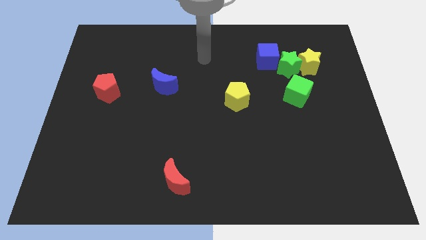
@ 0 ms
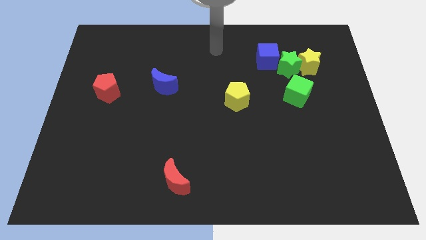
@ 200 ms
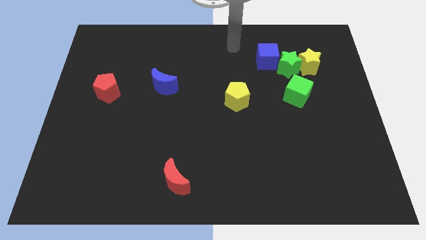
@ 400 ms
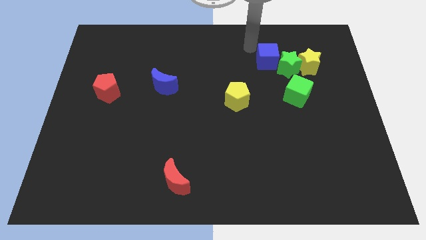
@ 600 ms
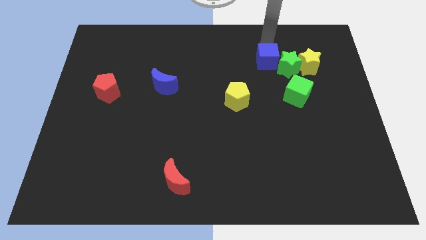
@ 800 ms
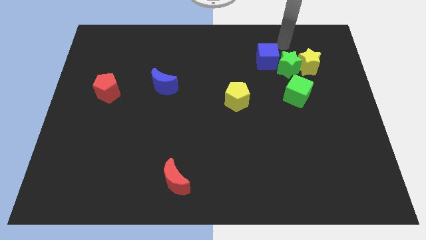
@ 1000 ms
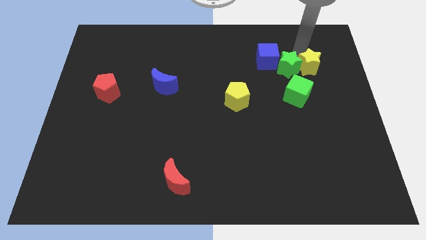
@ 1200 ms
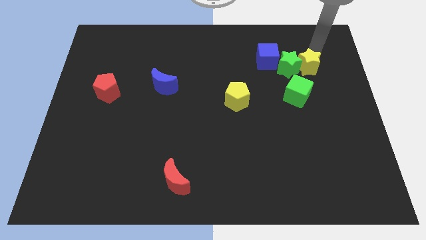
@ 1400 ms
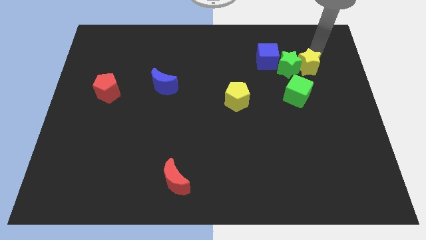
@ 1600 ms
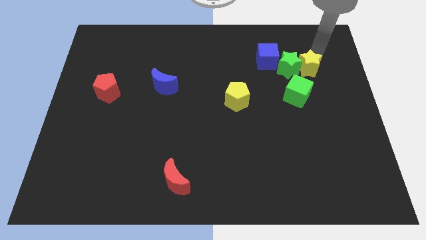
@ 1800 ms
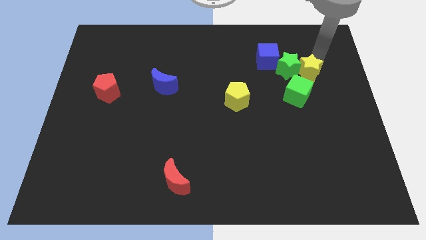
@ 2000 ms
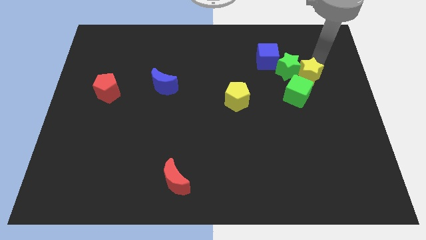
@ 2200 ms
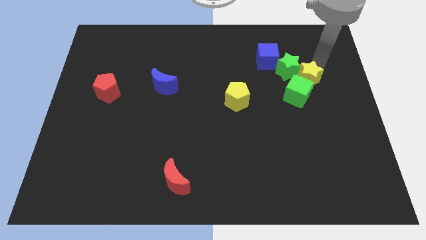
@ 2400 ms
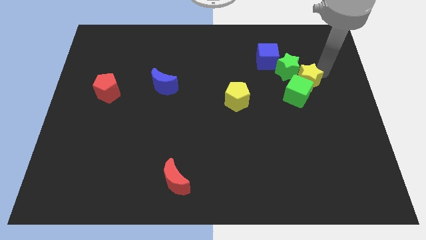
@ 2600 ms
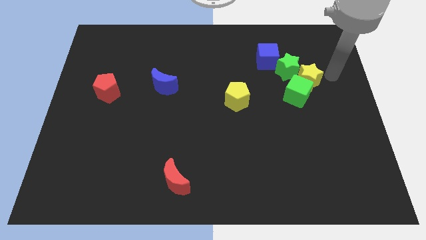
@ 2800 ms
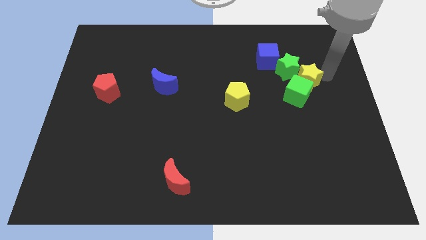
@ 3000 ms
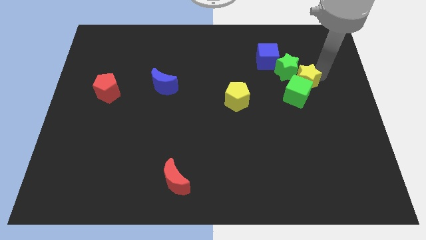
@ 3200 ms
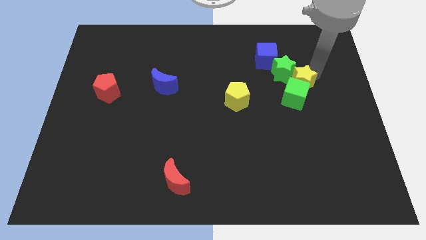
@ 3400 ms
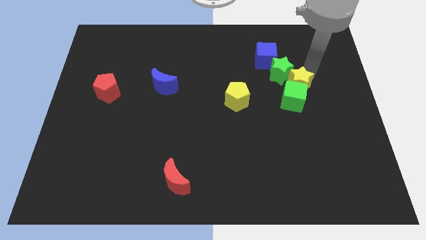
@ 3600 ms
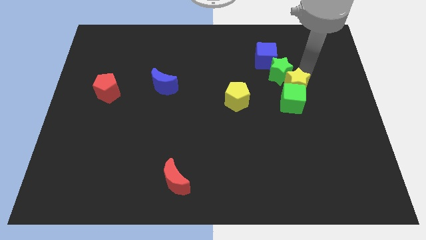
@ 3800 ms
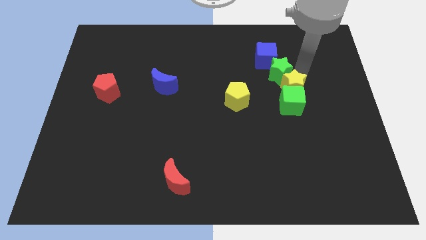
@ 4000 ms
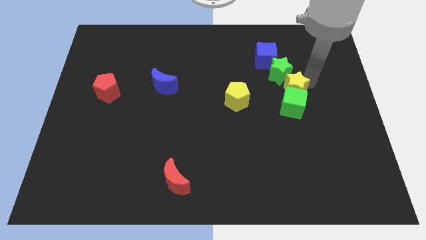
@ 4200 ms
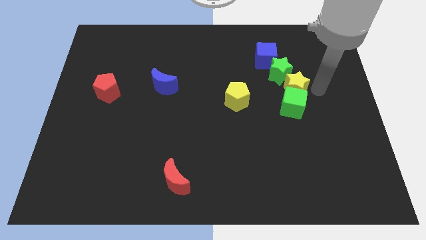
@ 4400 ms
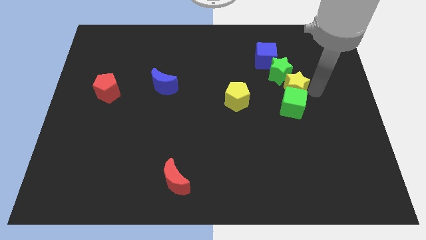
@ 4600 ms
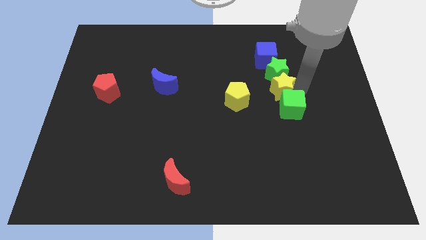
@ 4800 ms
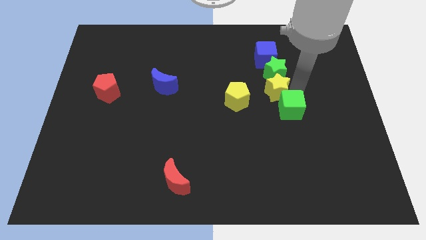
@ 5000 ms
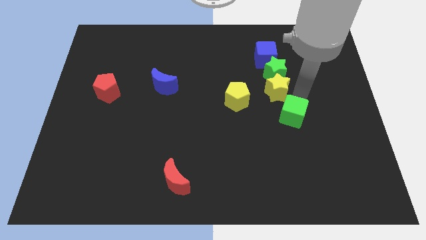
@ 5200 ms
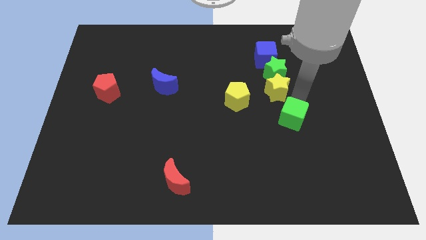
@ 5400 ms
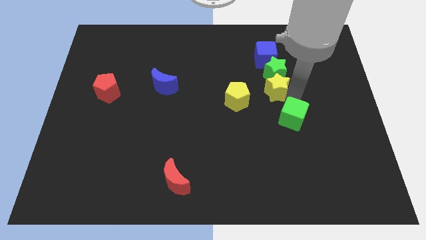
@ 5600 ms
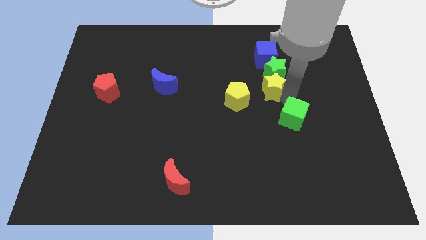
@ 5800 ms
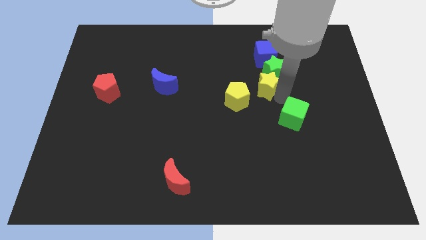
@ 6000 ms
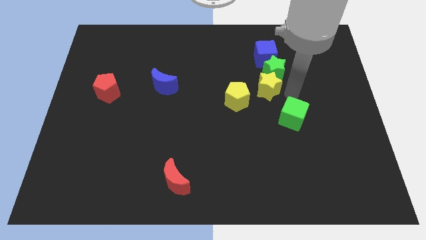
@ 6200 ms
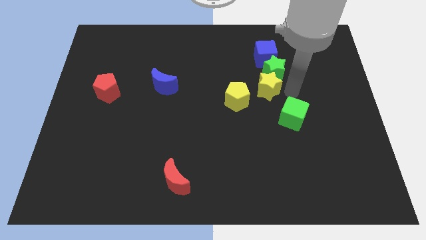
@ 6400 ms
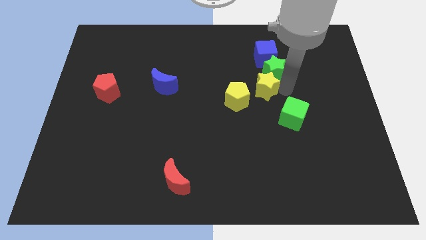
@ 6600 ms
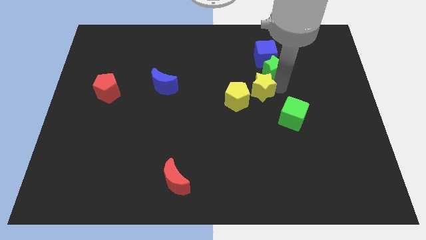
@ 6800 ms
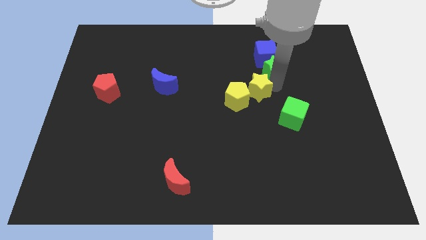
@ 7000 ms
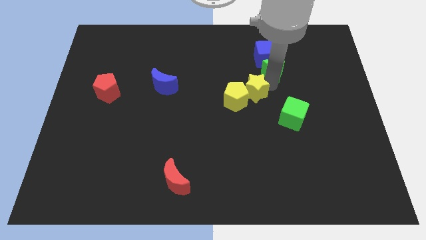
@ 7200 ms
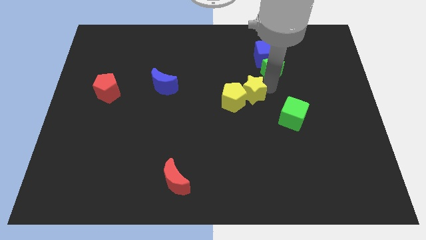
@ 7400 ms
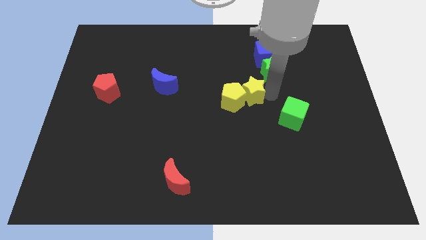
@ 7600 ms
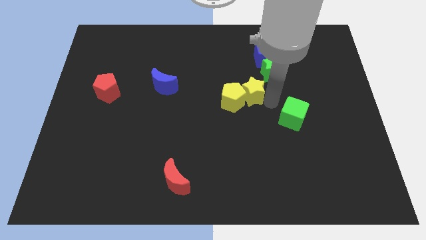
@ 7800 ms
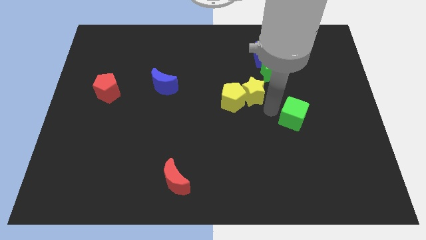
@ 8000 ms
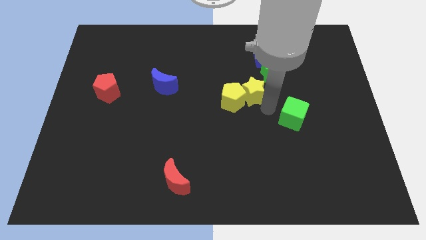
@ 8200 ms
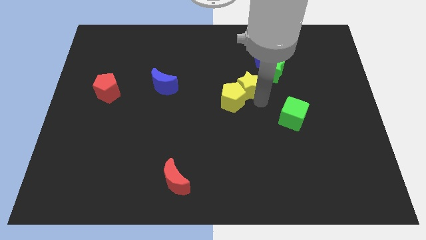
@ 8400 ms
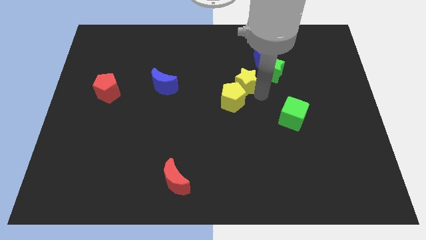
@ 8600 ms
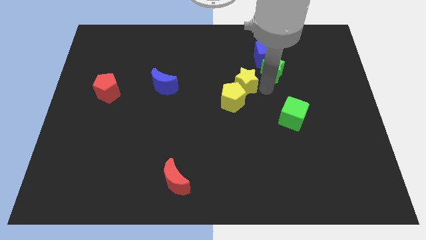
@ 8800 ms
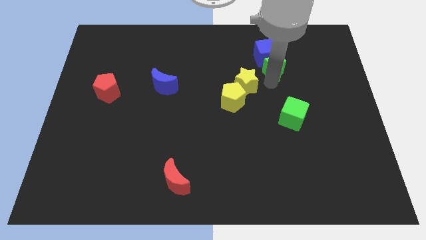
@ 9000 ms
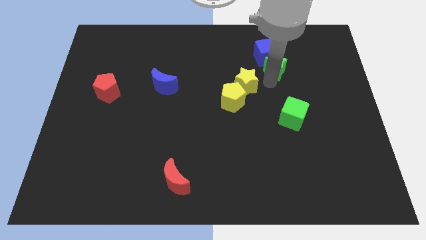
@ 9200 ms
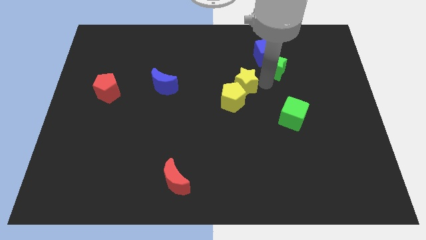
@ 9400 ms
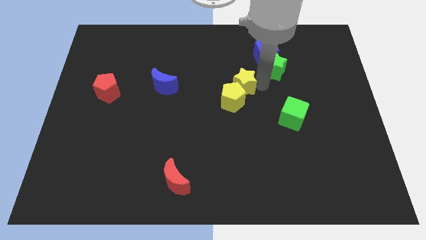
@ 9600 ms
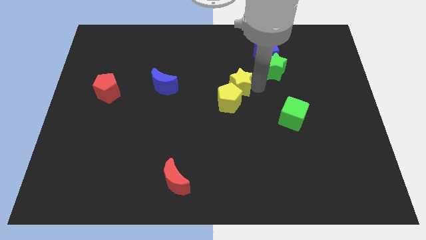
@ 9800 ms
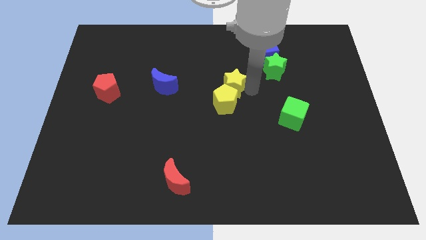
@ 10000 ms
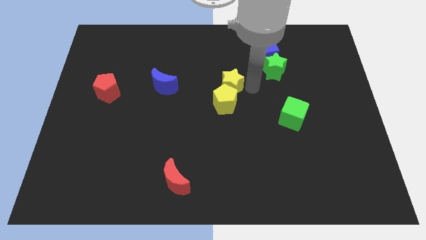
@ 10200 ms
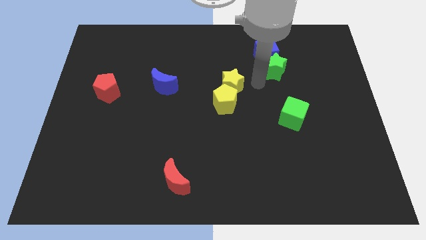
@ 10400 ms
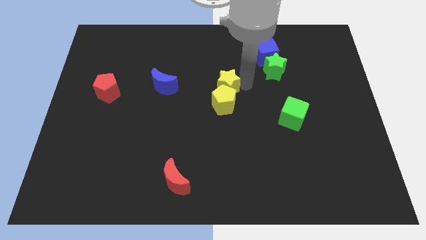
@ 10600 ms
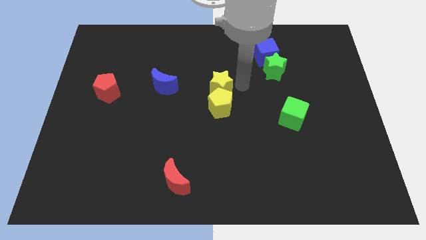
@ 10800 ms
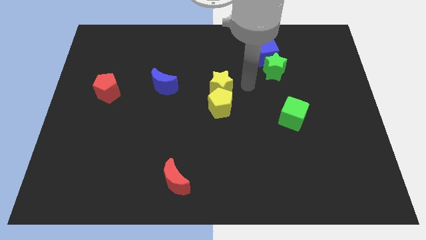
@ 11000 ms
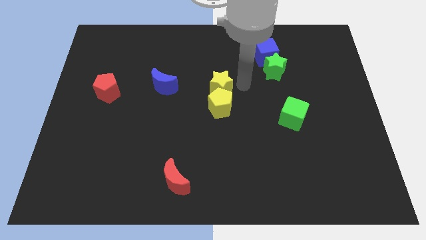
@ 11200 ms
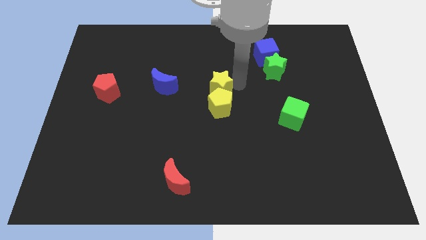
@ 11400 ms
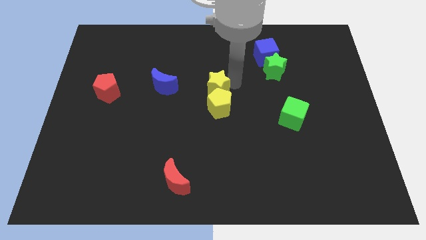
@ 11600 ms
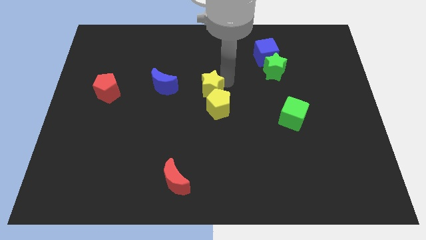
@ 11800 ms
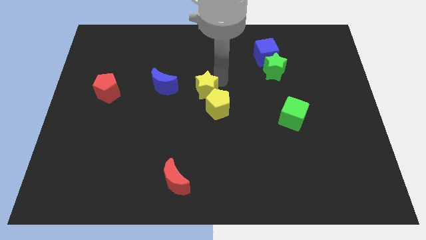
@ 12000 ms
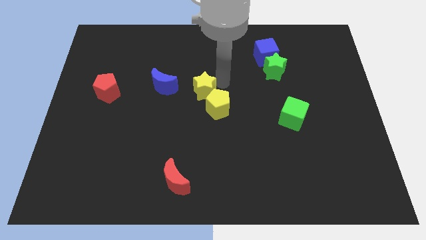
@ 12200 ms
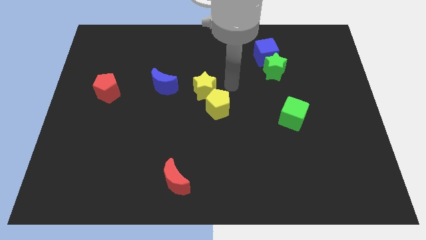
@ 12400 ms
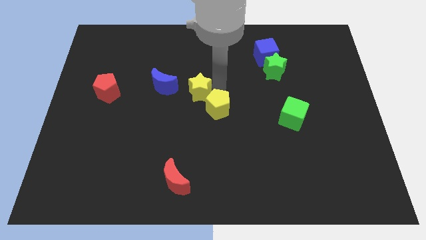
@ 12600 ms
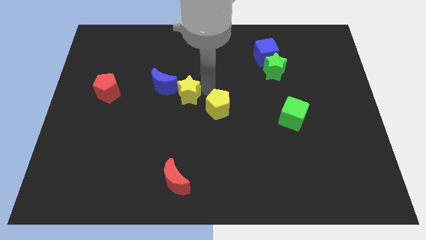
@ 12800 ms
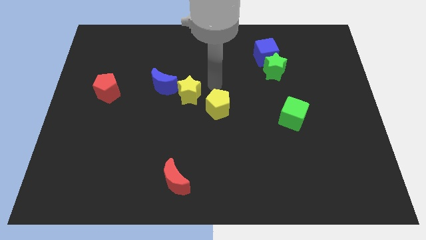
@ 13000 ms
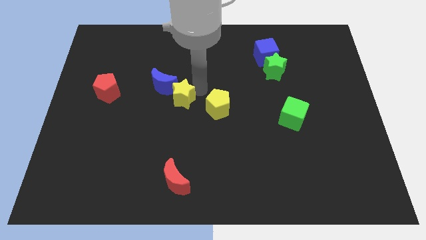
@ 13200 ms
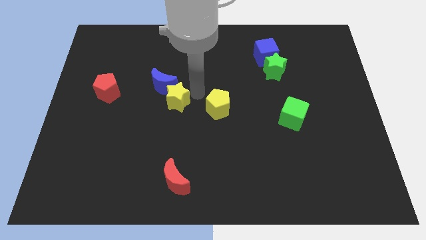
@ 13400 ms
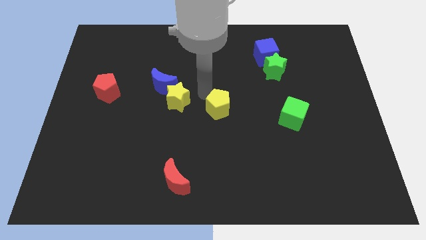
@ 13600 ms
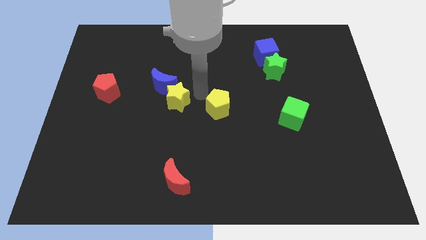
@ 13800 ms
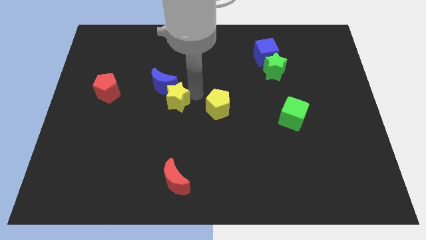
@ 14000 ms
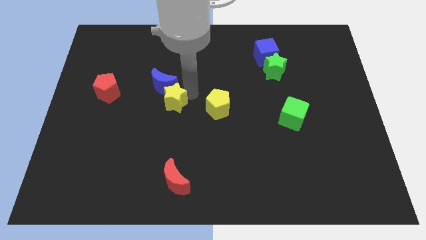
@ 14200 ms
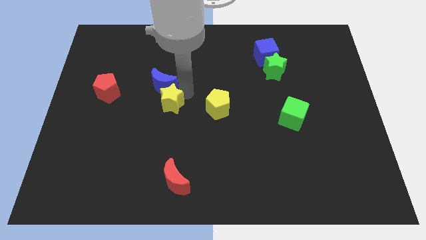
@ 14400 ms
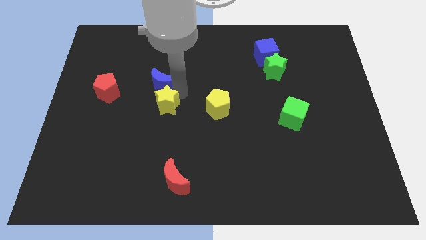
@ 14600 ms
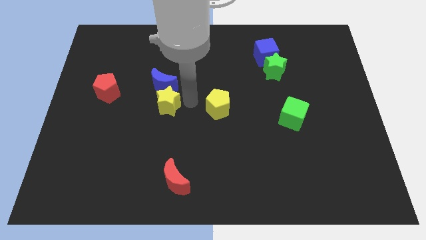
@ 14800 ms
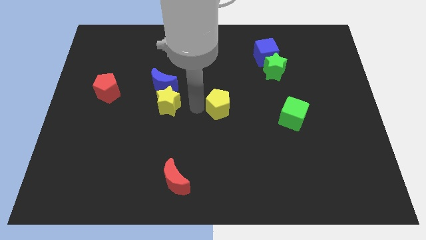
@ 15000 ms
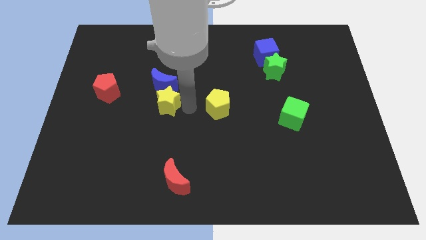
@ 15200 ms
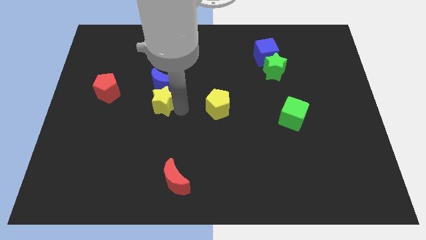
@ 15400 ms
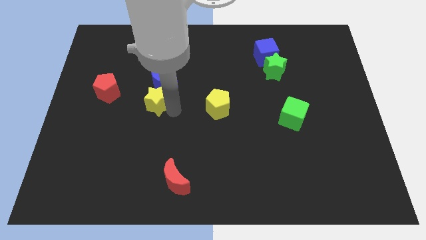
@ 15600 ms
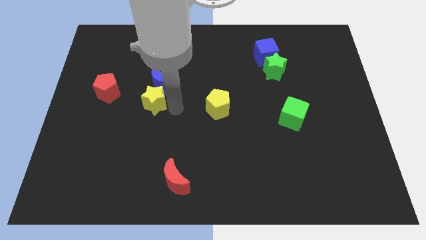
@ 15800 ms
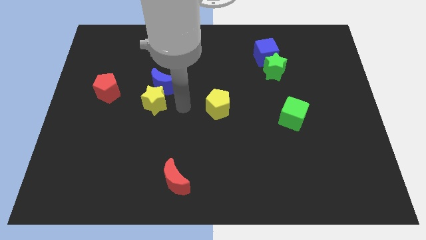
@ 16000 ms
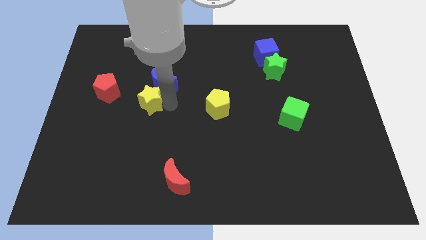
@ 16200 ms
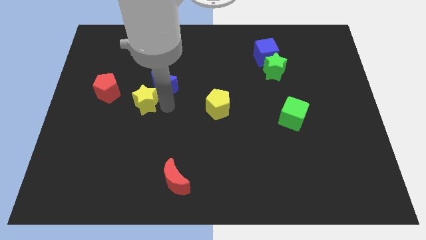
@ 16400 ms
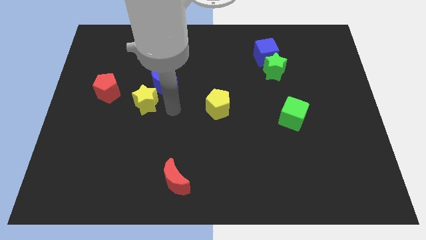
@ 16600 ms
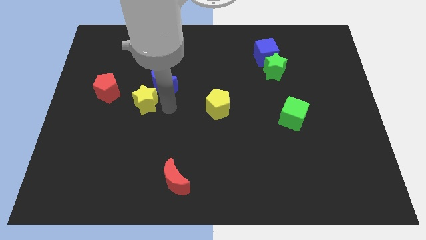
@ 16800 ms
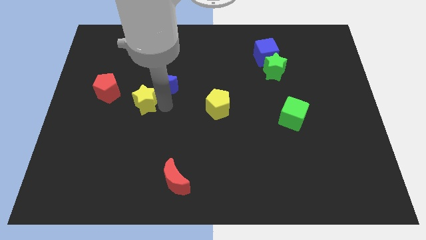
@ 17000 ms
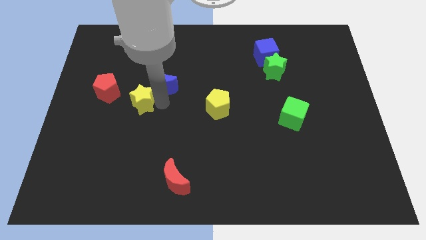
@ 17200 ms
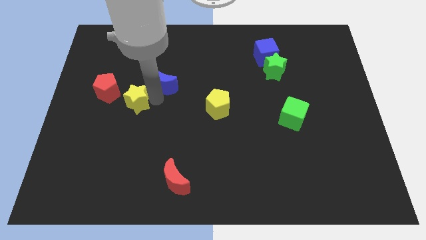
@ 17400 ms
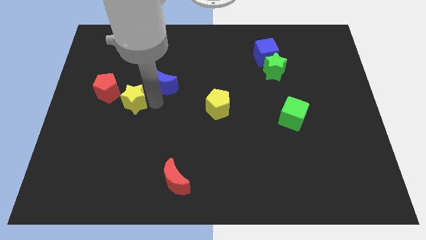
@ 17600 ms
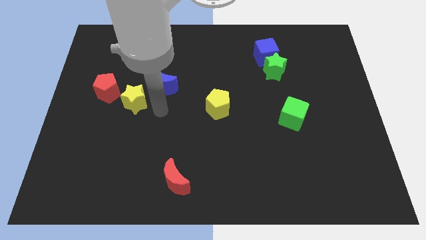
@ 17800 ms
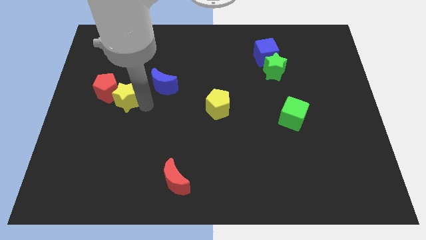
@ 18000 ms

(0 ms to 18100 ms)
slide the yellow star close to the red pentagon
